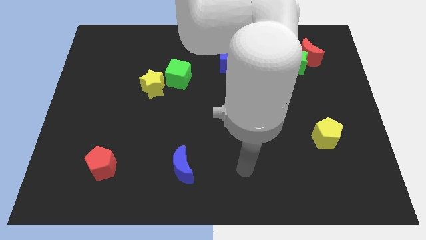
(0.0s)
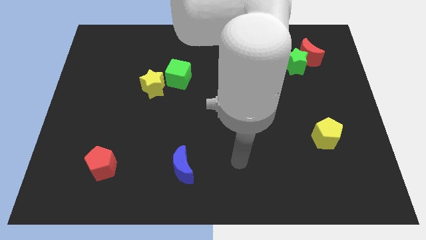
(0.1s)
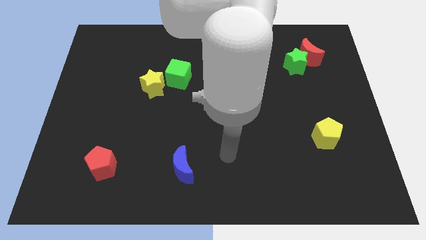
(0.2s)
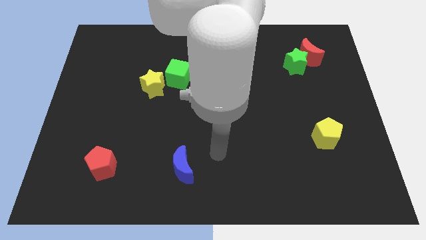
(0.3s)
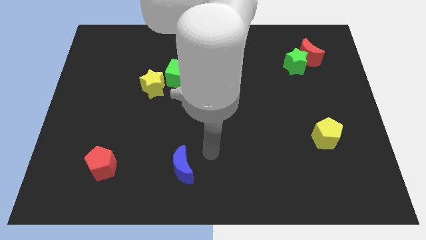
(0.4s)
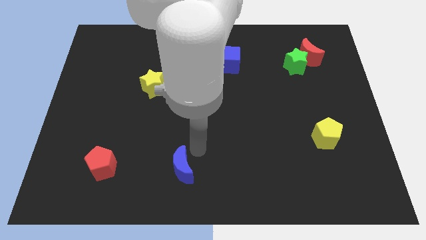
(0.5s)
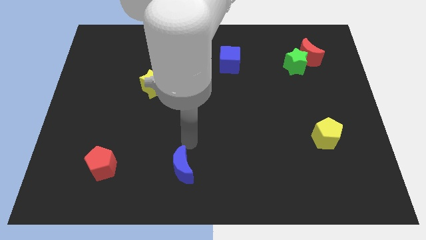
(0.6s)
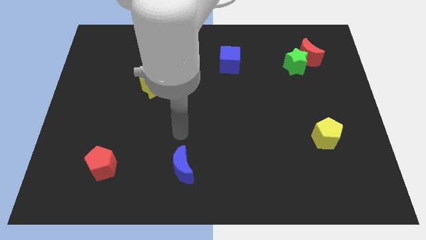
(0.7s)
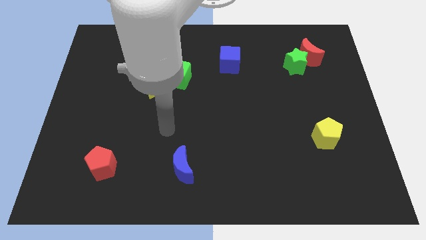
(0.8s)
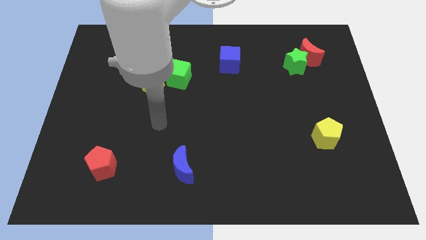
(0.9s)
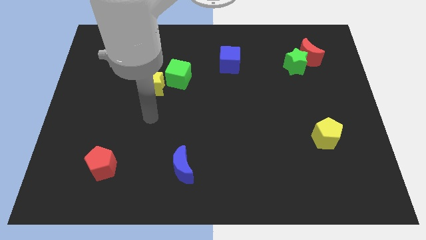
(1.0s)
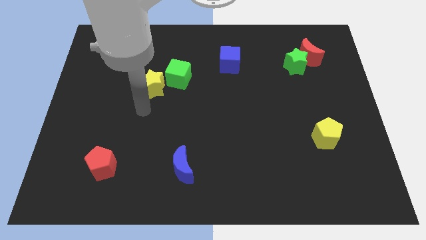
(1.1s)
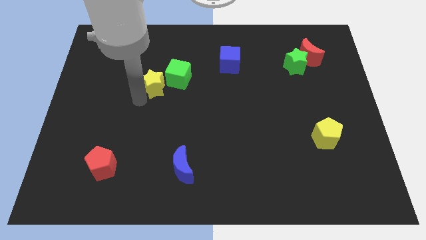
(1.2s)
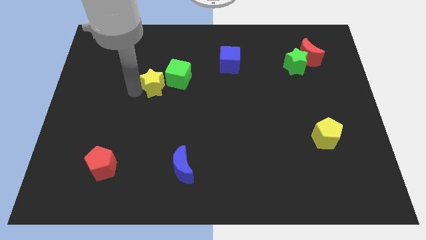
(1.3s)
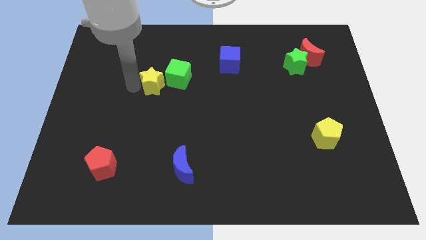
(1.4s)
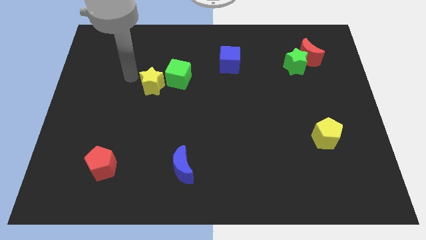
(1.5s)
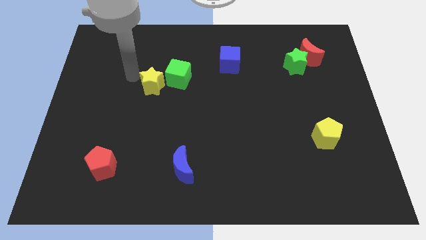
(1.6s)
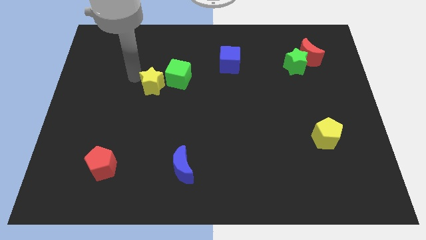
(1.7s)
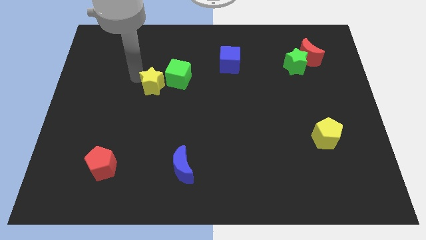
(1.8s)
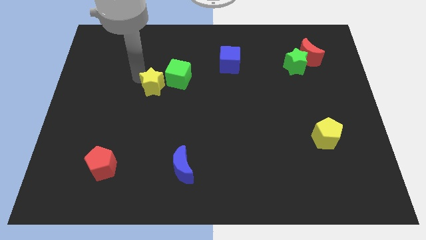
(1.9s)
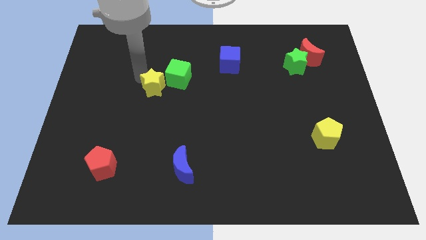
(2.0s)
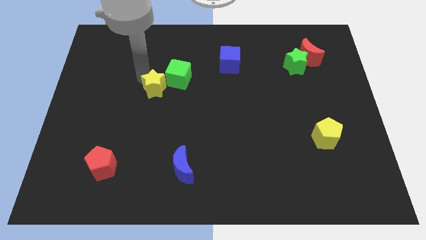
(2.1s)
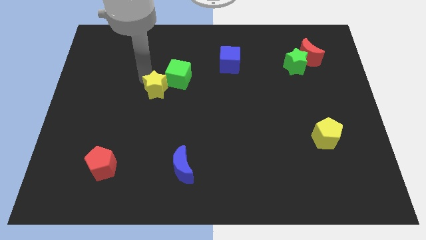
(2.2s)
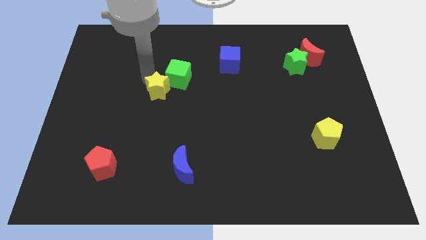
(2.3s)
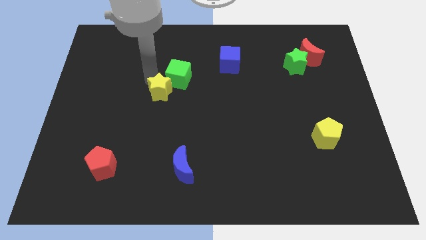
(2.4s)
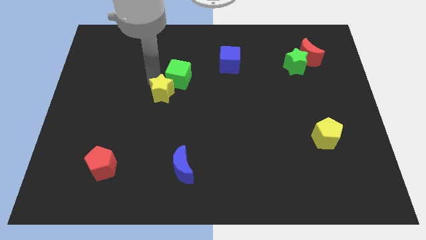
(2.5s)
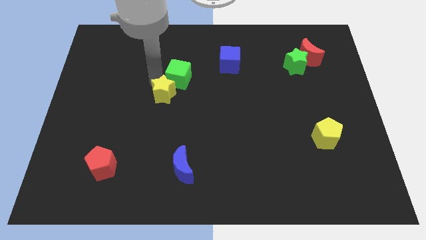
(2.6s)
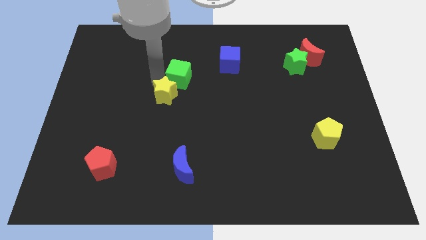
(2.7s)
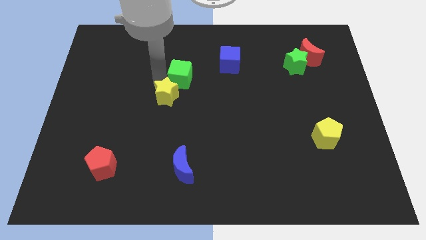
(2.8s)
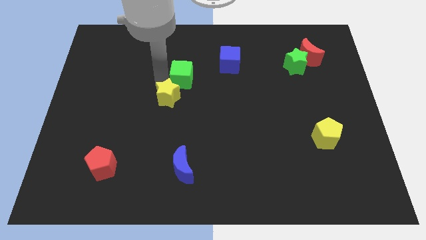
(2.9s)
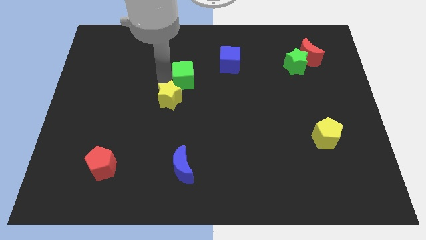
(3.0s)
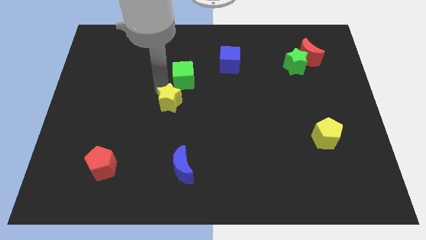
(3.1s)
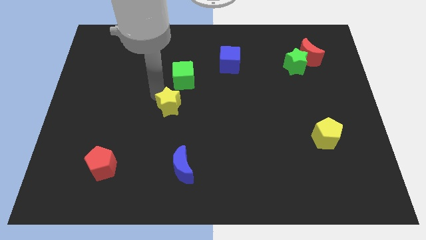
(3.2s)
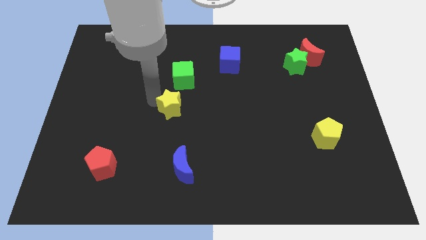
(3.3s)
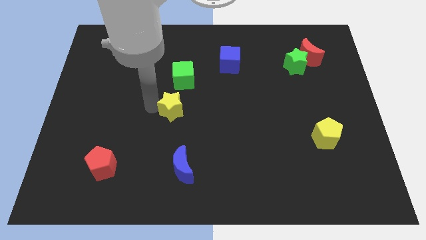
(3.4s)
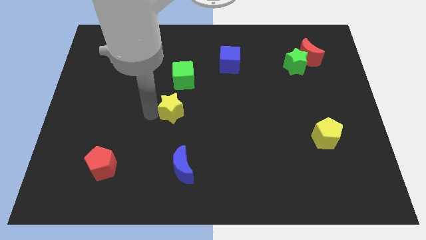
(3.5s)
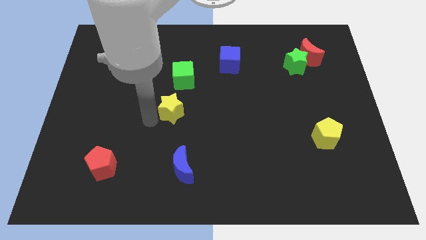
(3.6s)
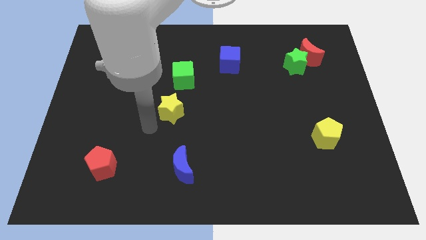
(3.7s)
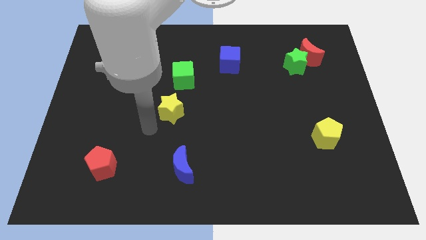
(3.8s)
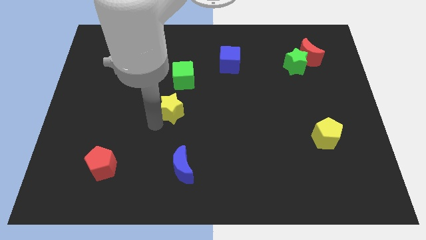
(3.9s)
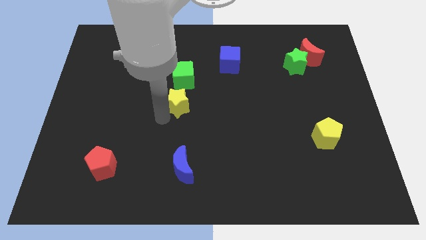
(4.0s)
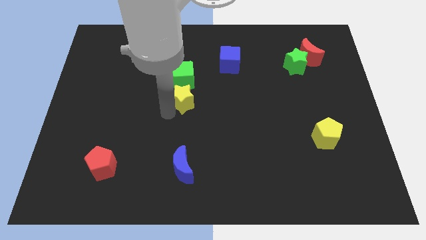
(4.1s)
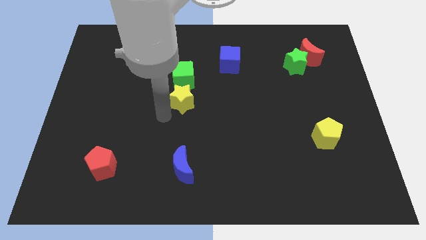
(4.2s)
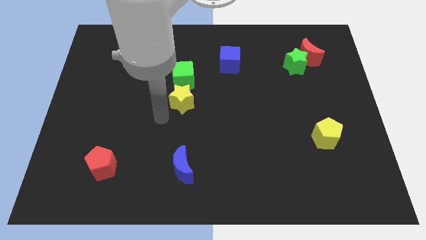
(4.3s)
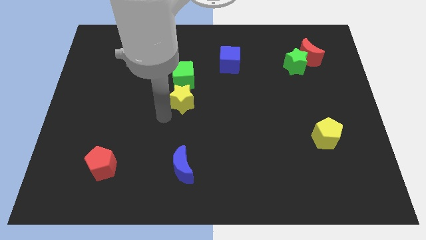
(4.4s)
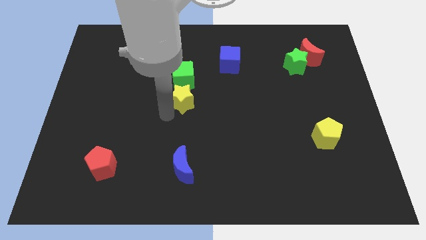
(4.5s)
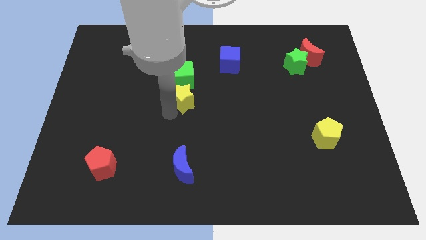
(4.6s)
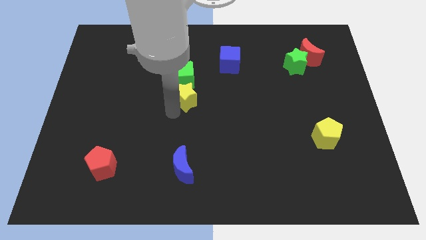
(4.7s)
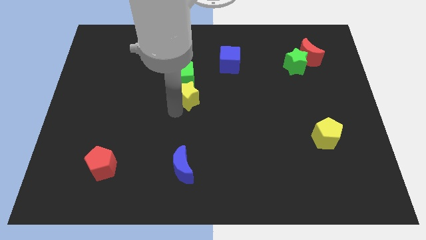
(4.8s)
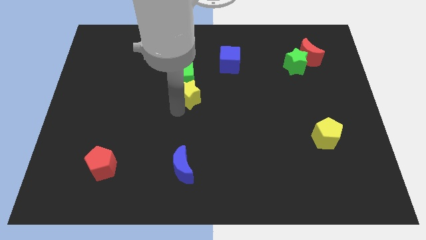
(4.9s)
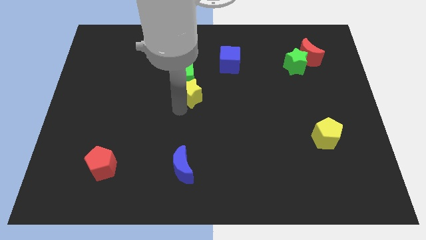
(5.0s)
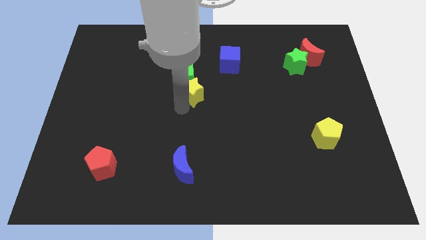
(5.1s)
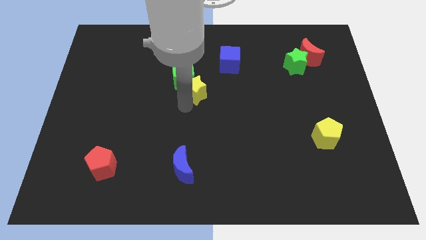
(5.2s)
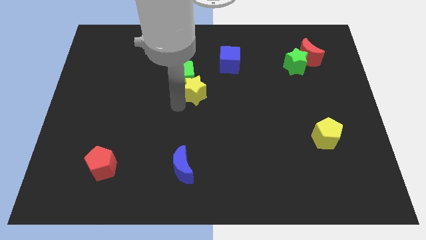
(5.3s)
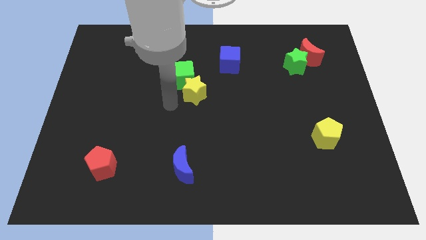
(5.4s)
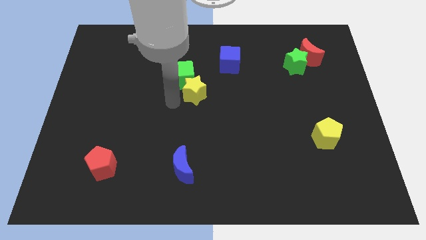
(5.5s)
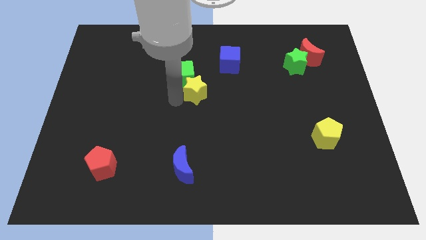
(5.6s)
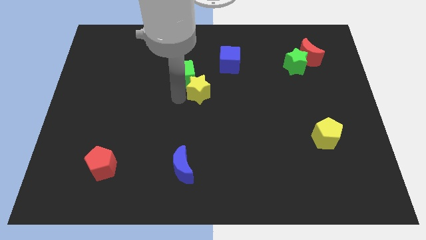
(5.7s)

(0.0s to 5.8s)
put the yellow star just right of the green cube

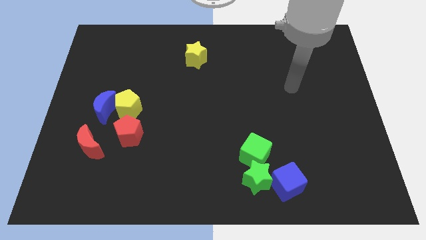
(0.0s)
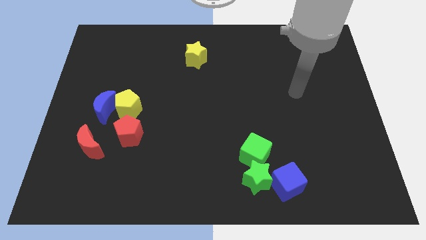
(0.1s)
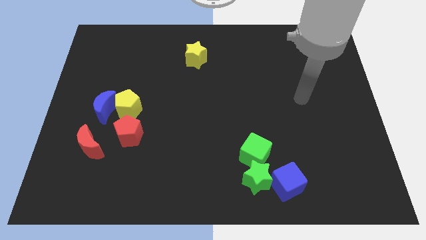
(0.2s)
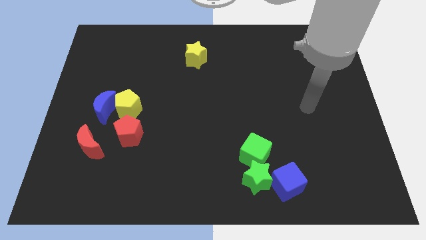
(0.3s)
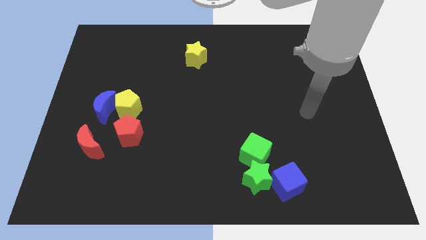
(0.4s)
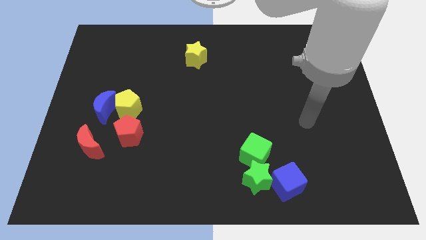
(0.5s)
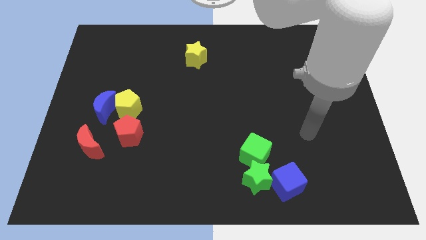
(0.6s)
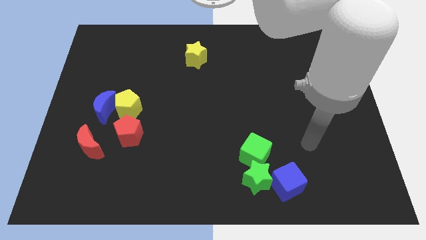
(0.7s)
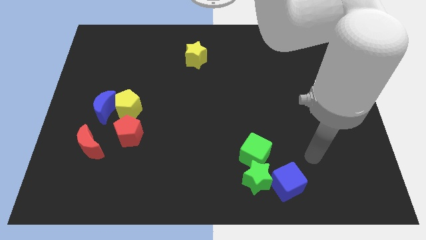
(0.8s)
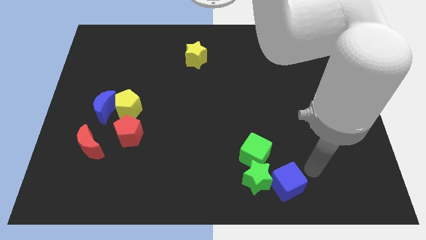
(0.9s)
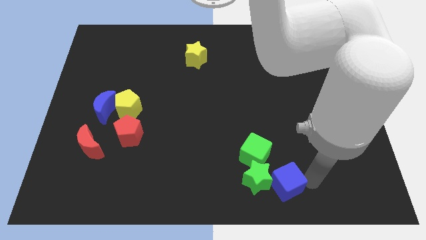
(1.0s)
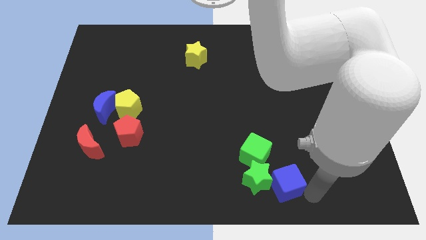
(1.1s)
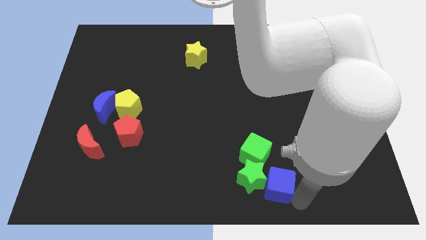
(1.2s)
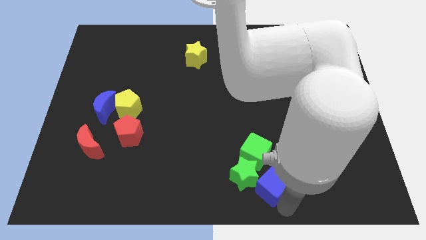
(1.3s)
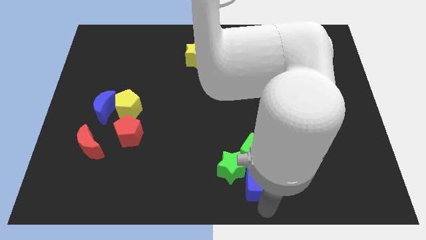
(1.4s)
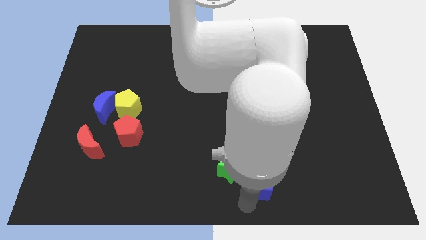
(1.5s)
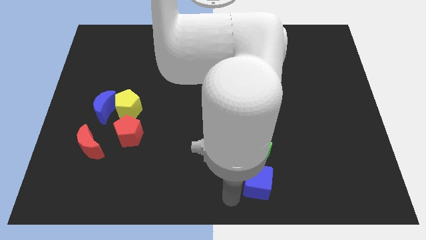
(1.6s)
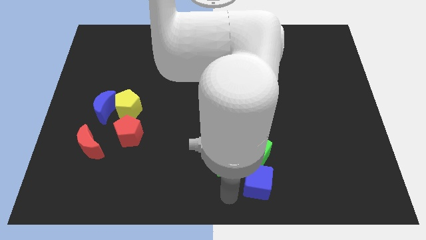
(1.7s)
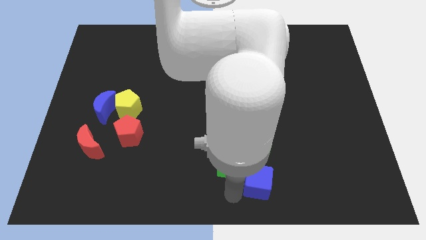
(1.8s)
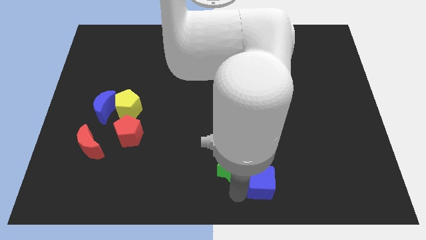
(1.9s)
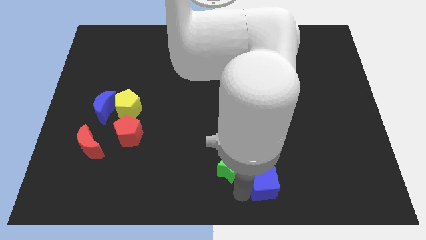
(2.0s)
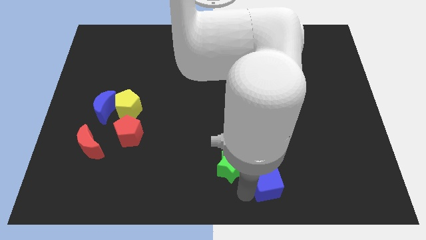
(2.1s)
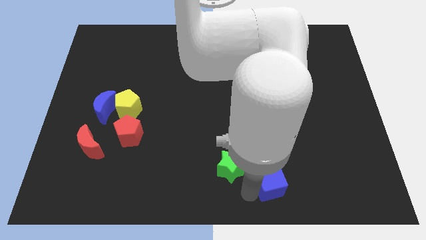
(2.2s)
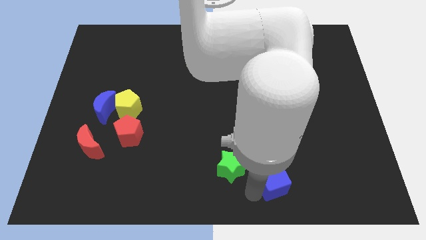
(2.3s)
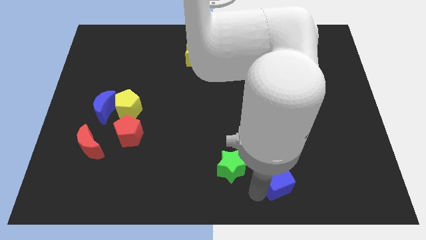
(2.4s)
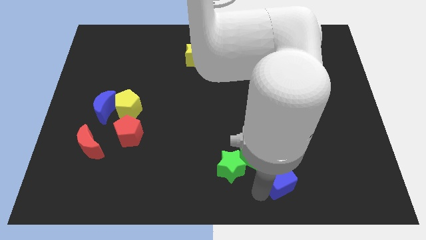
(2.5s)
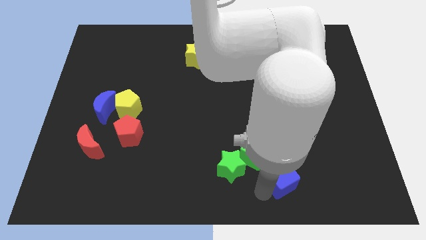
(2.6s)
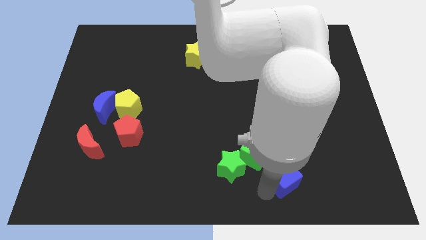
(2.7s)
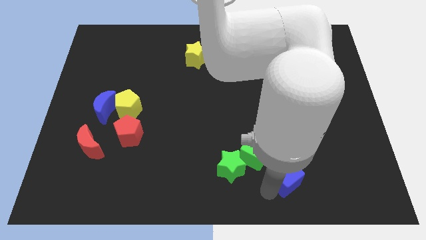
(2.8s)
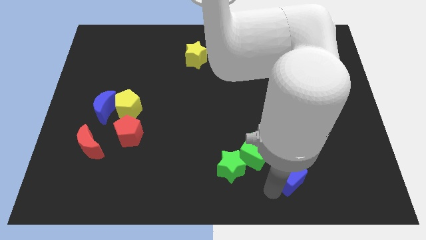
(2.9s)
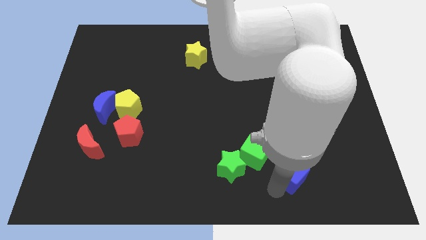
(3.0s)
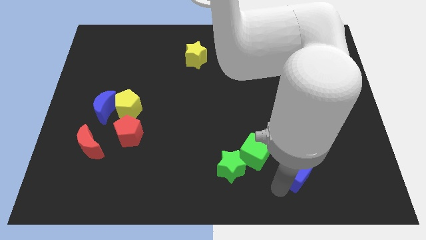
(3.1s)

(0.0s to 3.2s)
move the blue cube right of the green cube
